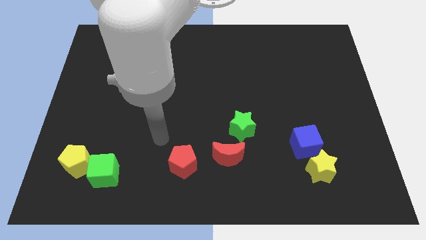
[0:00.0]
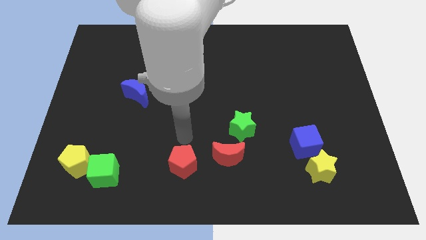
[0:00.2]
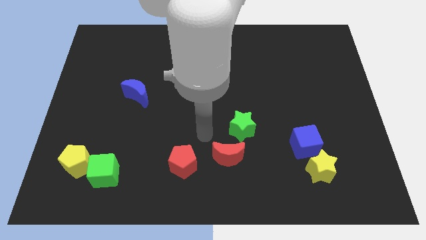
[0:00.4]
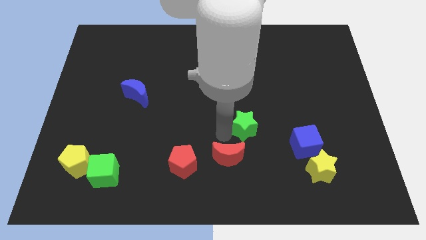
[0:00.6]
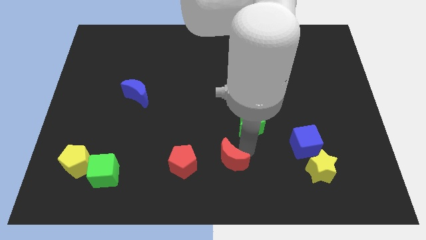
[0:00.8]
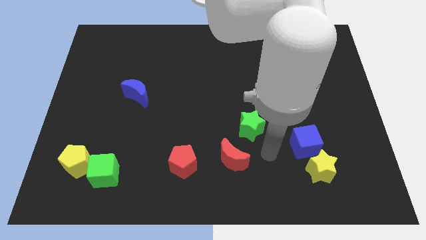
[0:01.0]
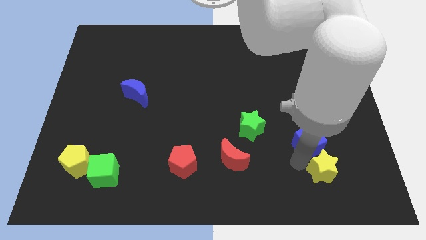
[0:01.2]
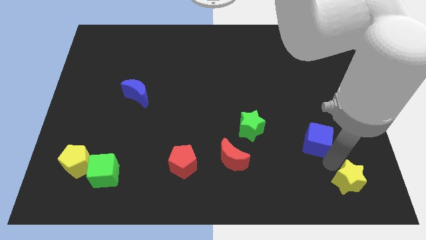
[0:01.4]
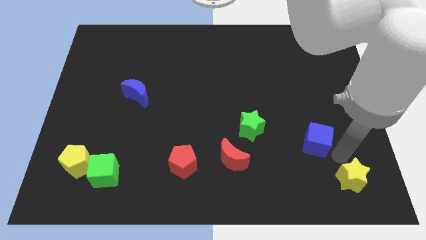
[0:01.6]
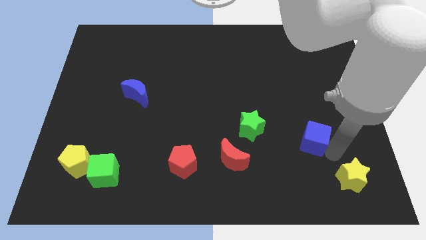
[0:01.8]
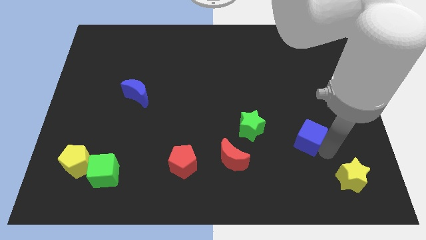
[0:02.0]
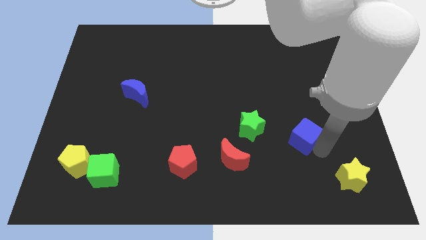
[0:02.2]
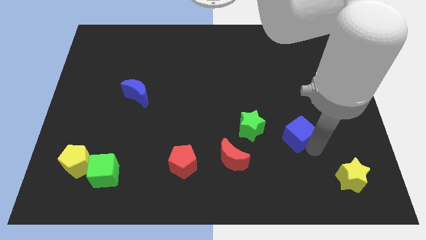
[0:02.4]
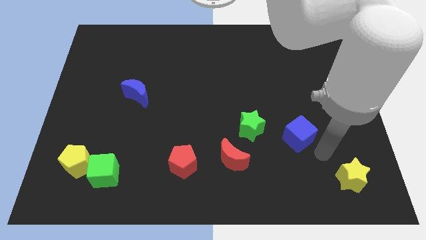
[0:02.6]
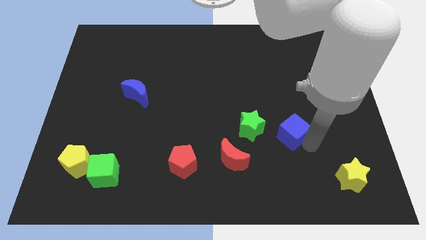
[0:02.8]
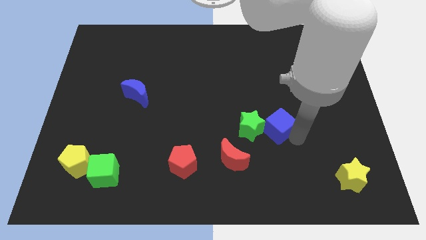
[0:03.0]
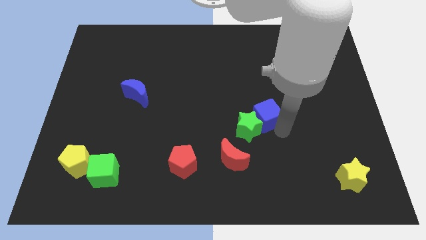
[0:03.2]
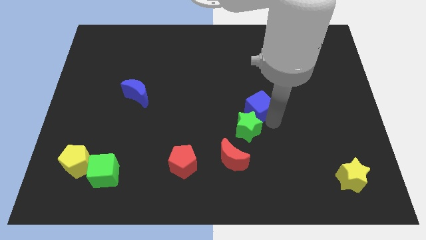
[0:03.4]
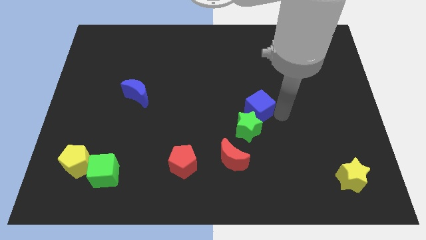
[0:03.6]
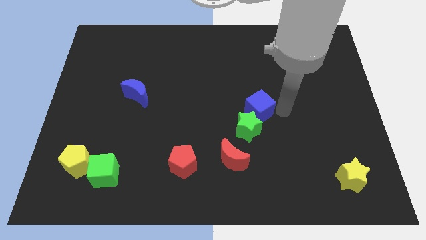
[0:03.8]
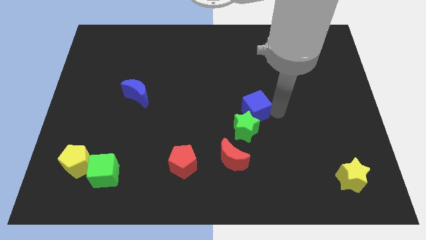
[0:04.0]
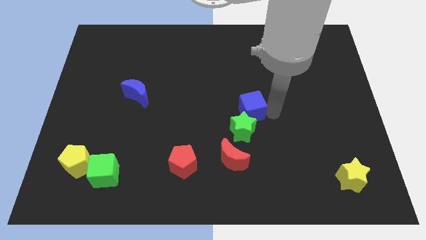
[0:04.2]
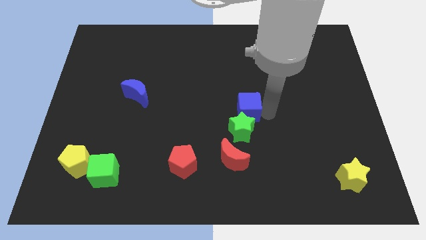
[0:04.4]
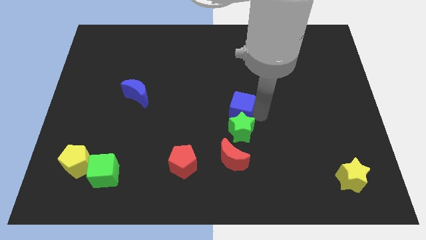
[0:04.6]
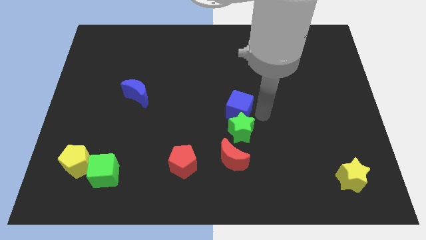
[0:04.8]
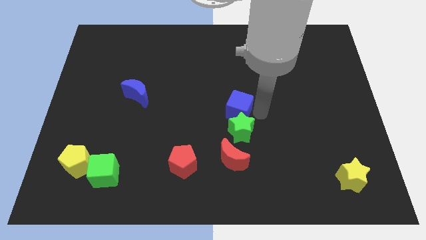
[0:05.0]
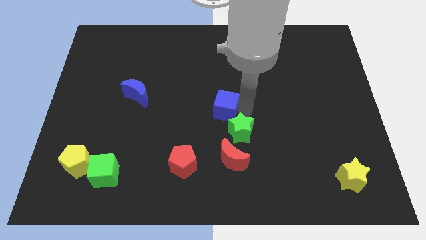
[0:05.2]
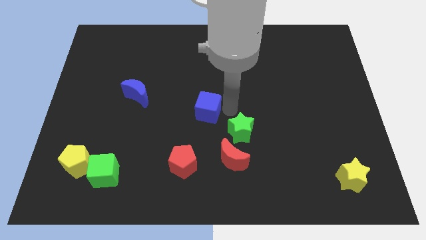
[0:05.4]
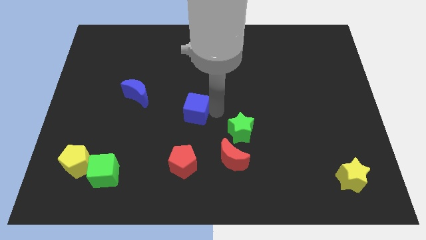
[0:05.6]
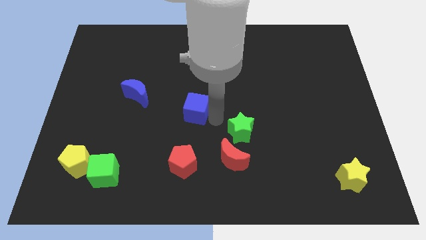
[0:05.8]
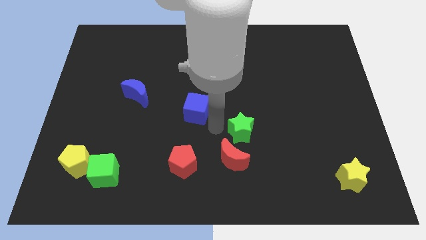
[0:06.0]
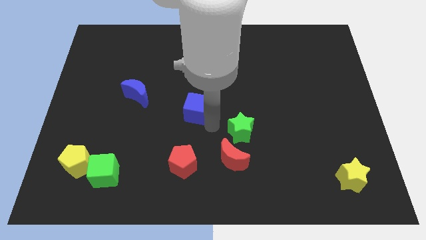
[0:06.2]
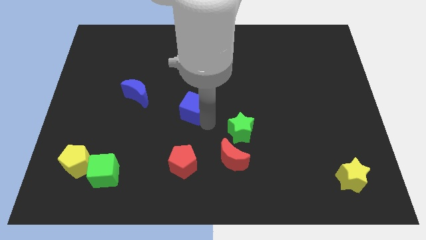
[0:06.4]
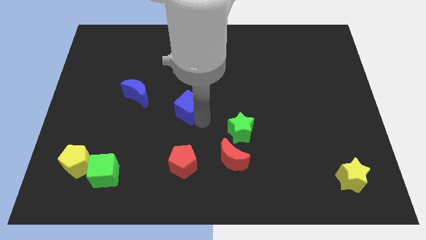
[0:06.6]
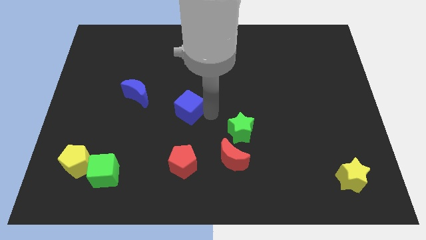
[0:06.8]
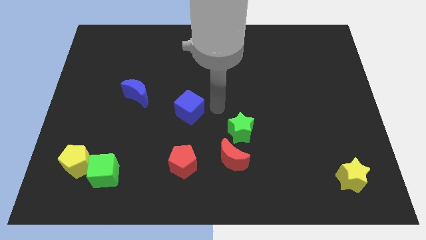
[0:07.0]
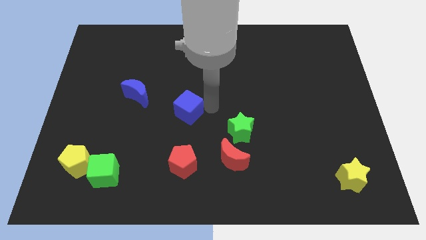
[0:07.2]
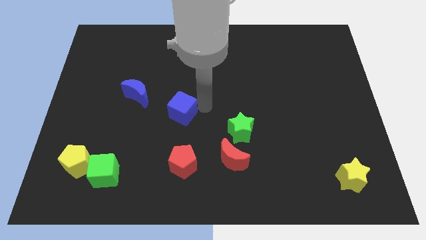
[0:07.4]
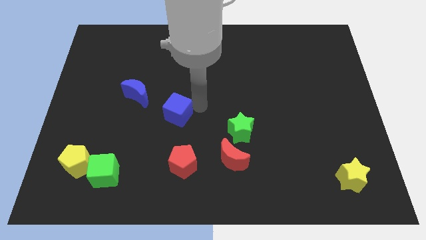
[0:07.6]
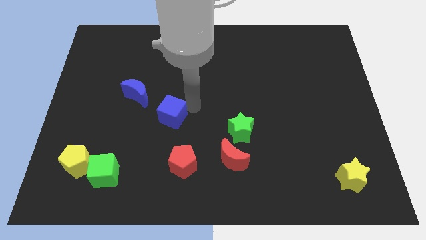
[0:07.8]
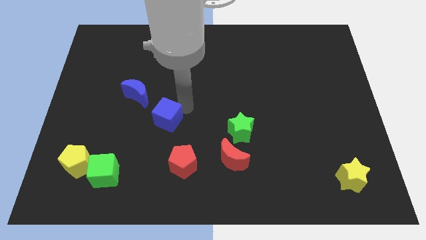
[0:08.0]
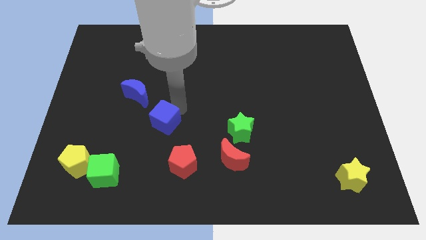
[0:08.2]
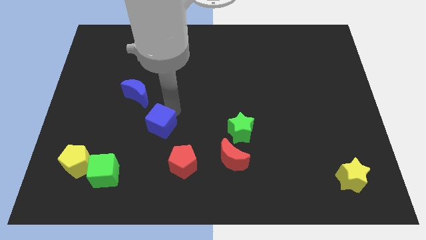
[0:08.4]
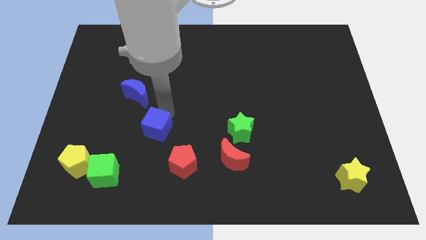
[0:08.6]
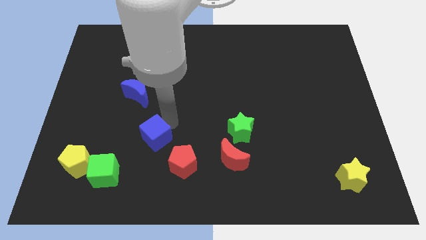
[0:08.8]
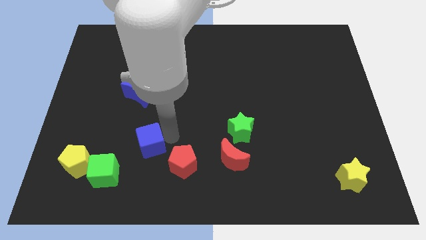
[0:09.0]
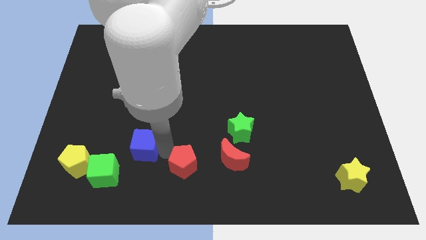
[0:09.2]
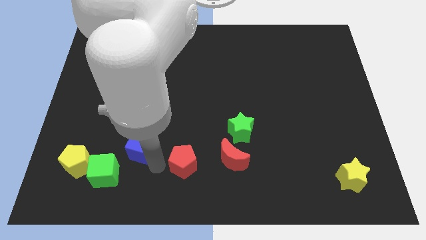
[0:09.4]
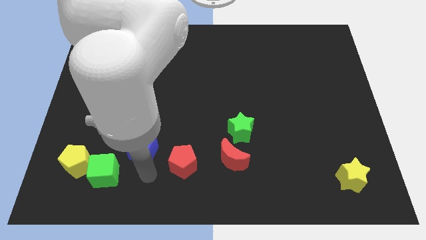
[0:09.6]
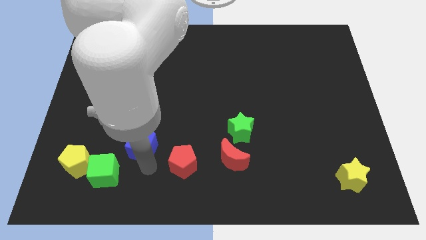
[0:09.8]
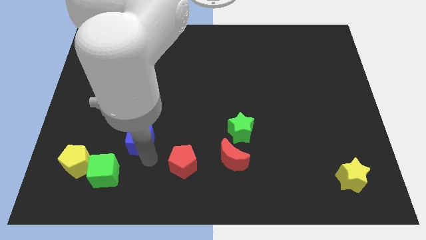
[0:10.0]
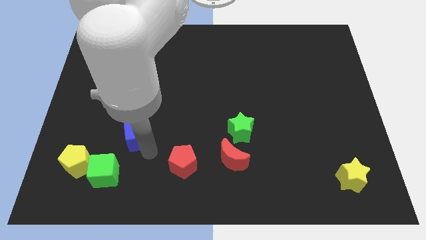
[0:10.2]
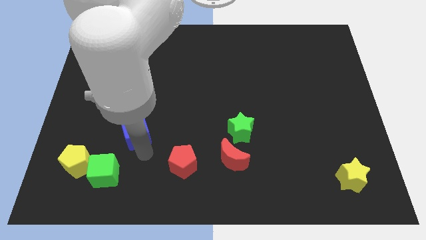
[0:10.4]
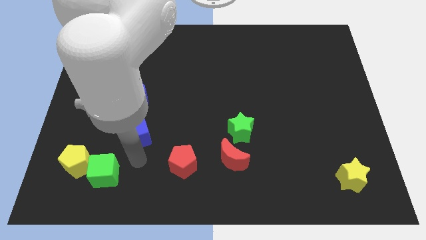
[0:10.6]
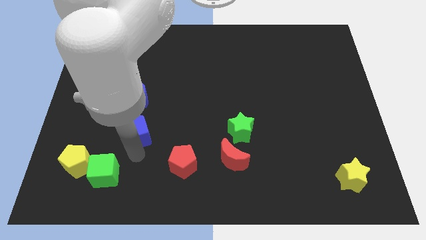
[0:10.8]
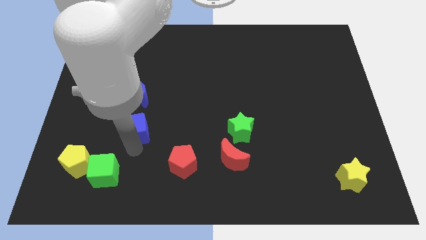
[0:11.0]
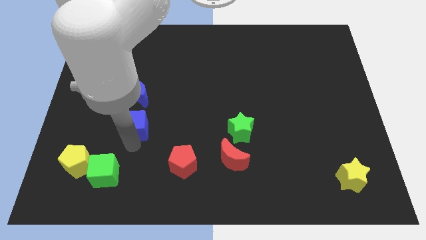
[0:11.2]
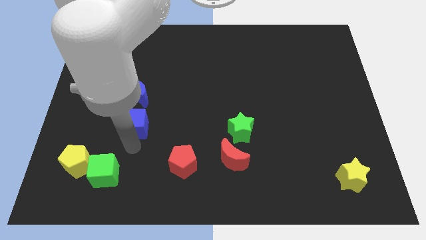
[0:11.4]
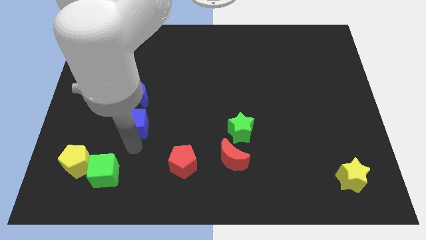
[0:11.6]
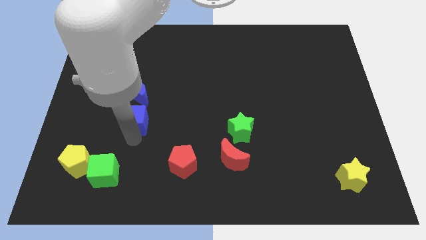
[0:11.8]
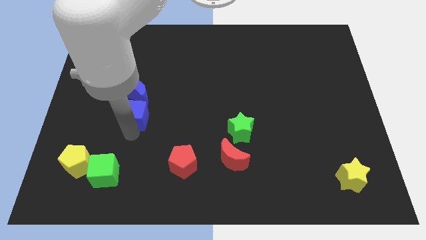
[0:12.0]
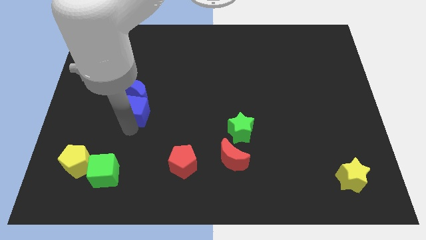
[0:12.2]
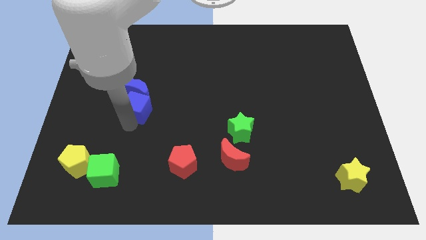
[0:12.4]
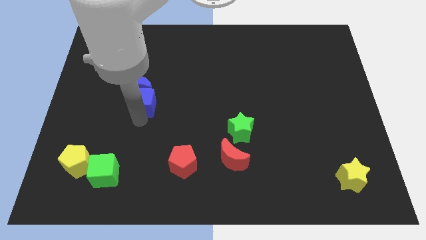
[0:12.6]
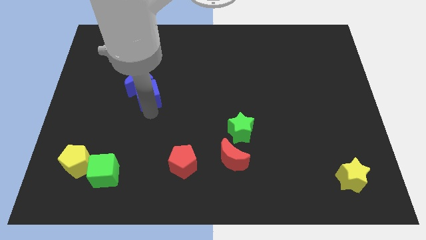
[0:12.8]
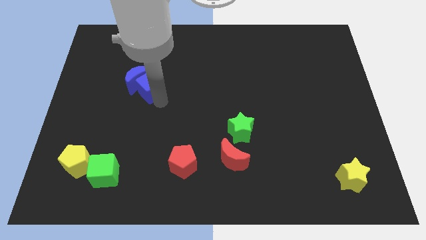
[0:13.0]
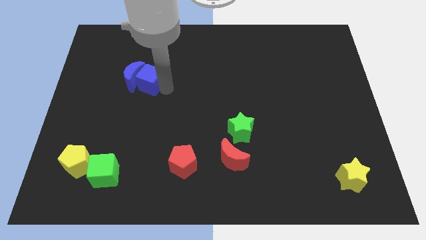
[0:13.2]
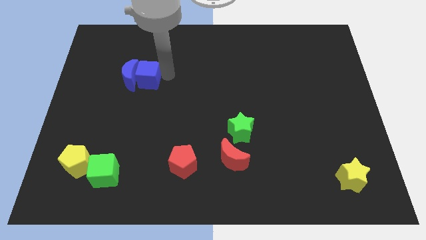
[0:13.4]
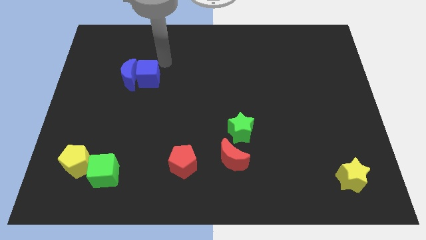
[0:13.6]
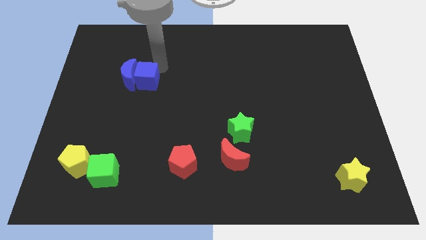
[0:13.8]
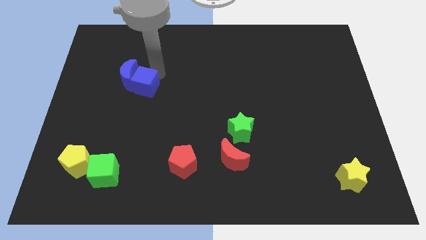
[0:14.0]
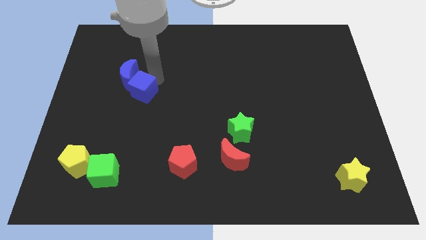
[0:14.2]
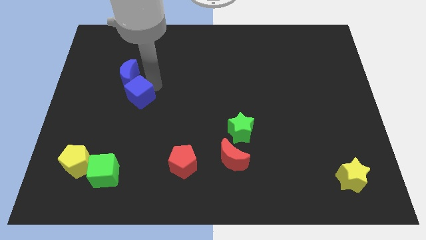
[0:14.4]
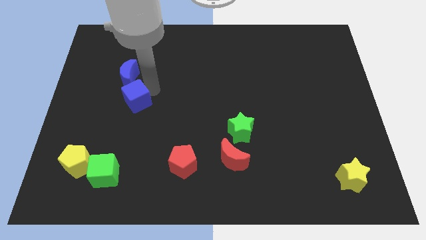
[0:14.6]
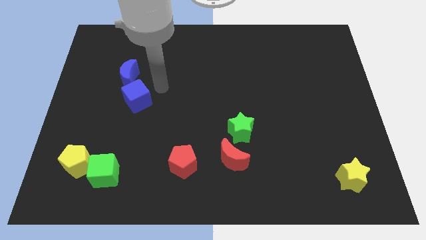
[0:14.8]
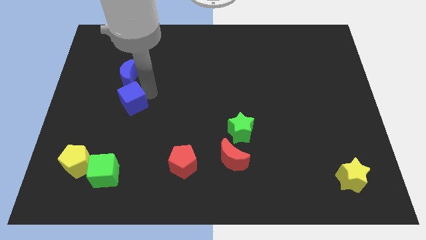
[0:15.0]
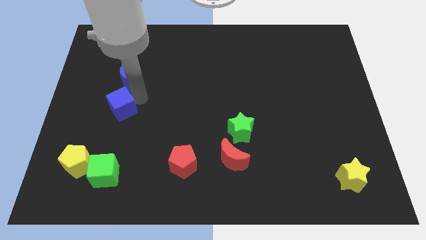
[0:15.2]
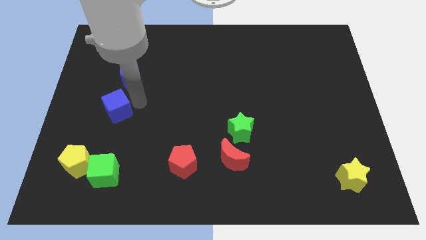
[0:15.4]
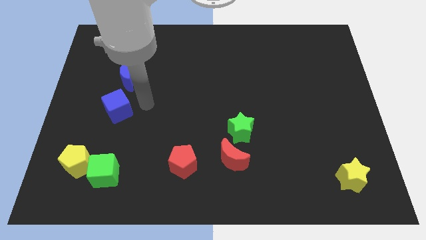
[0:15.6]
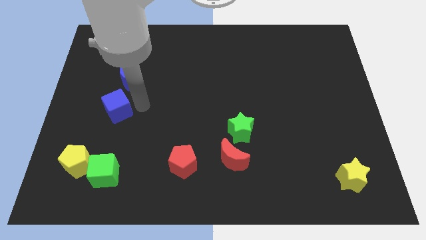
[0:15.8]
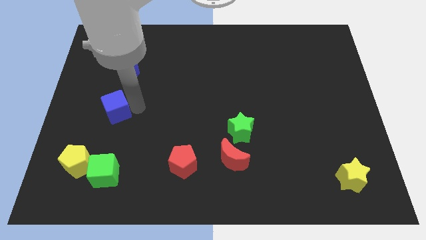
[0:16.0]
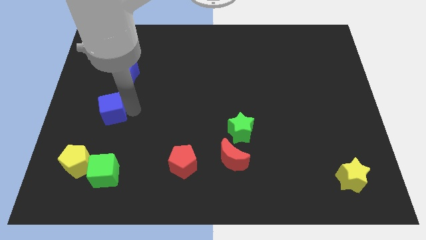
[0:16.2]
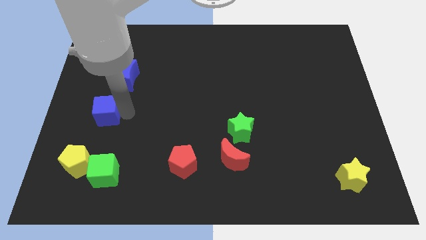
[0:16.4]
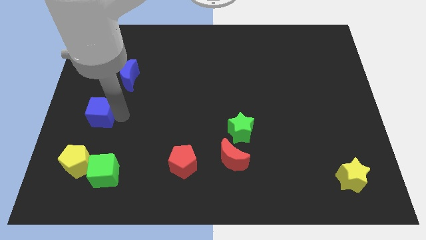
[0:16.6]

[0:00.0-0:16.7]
push the blue cube to the left side
